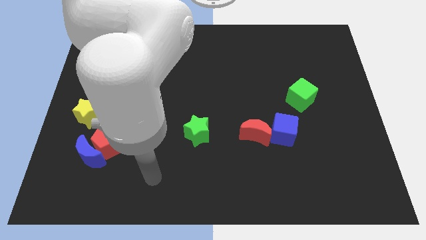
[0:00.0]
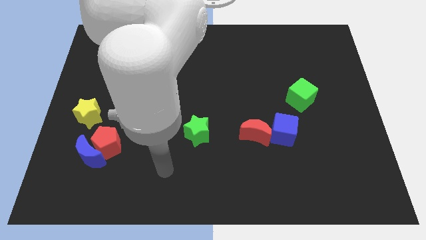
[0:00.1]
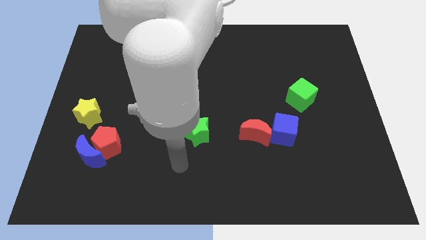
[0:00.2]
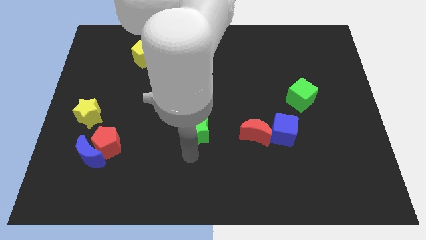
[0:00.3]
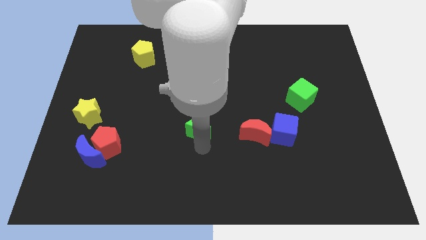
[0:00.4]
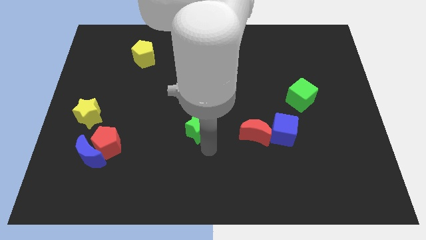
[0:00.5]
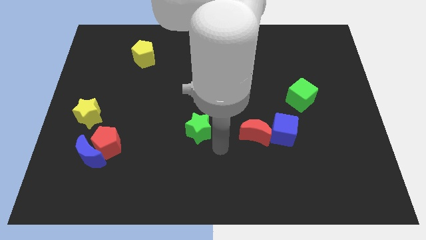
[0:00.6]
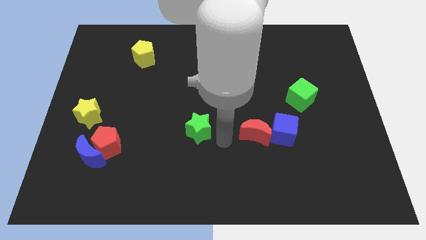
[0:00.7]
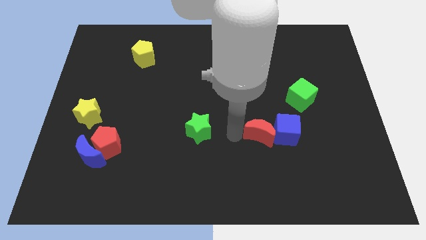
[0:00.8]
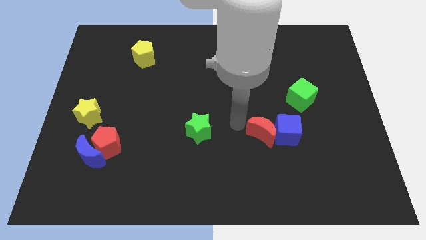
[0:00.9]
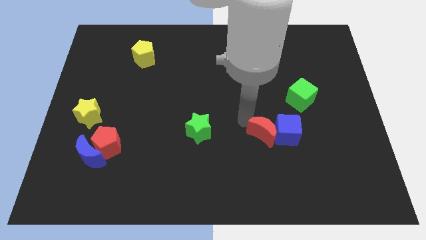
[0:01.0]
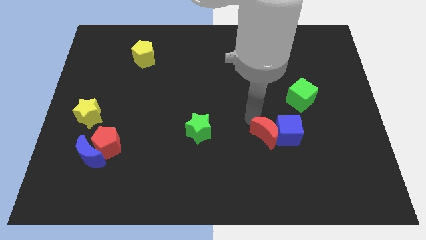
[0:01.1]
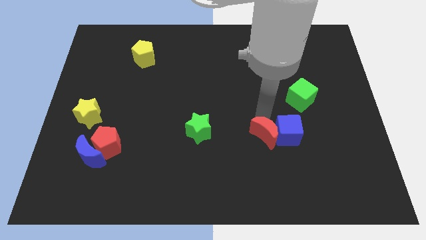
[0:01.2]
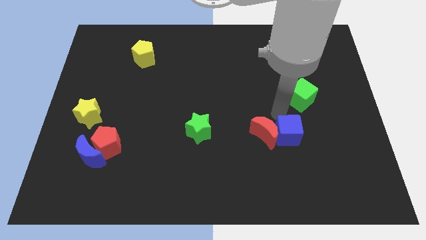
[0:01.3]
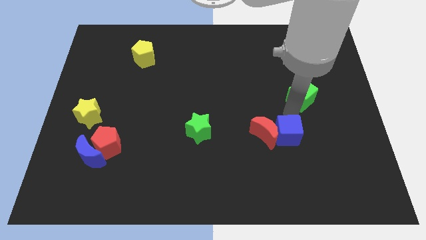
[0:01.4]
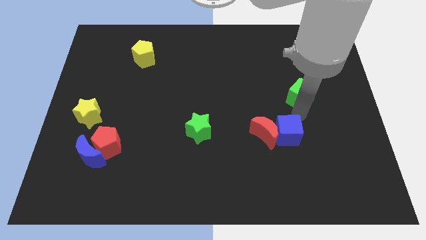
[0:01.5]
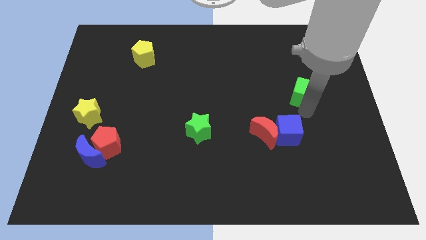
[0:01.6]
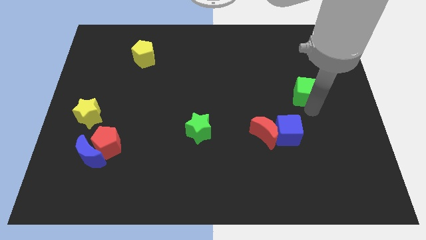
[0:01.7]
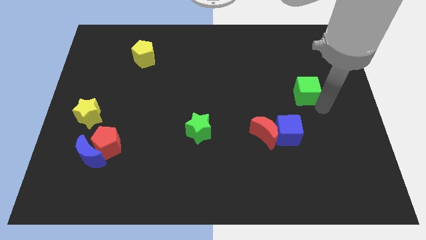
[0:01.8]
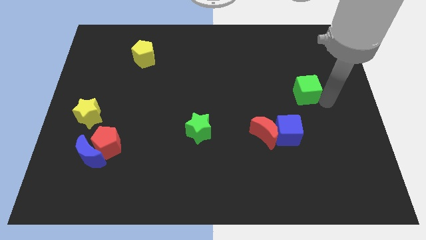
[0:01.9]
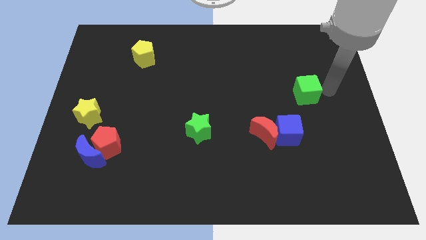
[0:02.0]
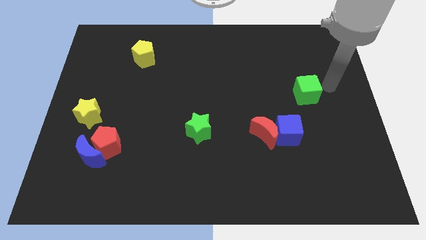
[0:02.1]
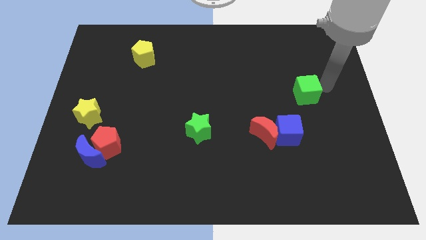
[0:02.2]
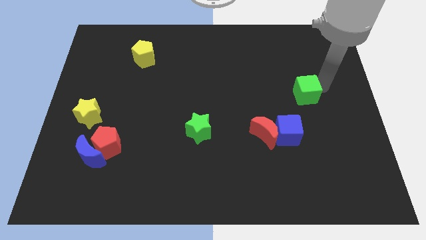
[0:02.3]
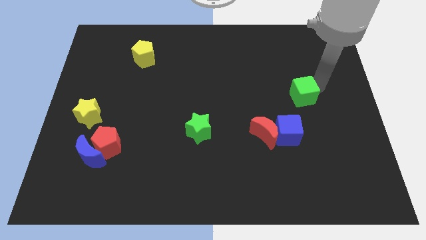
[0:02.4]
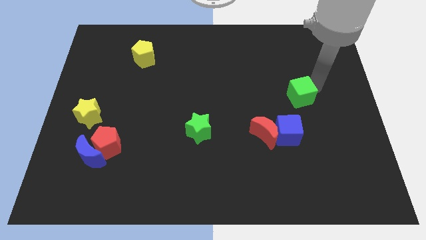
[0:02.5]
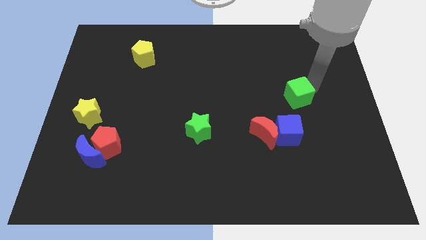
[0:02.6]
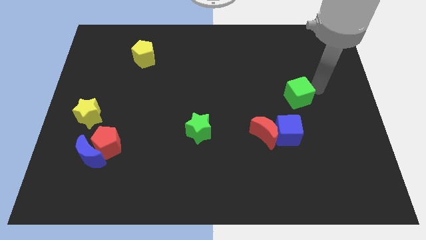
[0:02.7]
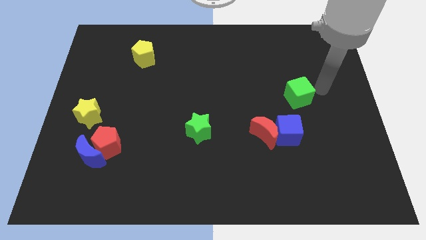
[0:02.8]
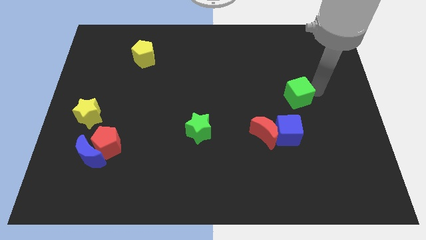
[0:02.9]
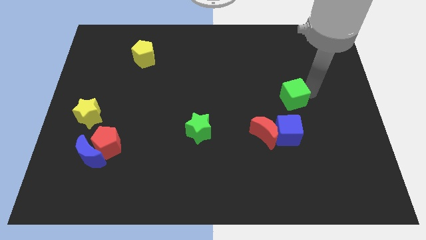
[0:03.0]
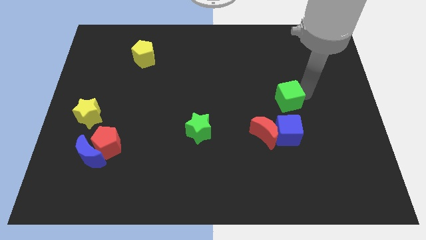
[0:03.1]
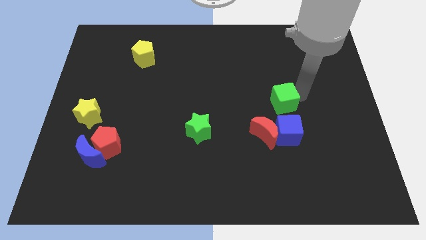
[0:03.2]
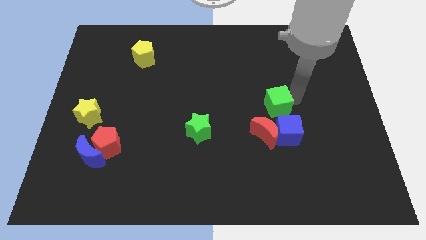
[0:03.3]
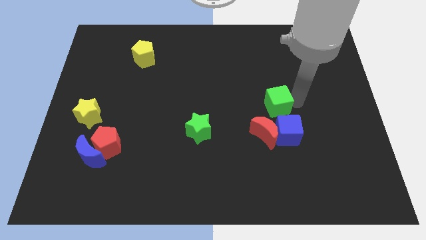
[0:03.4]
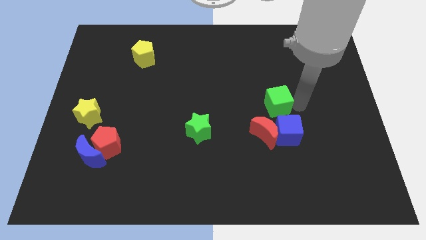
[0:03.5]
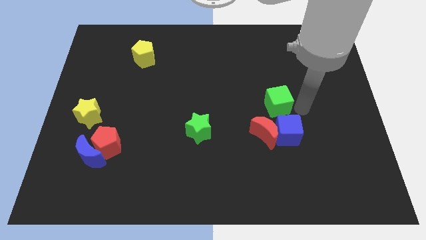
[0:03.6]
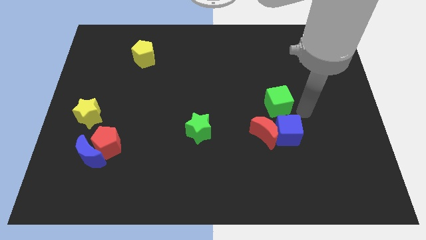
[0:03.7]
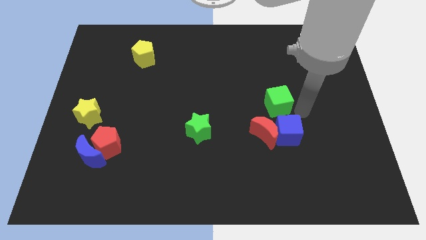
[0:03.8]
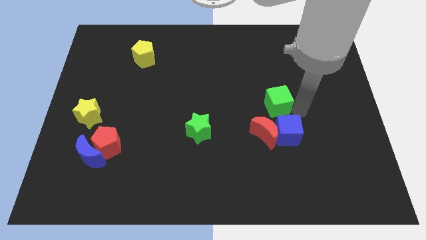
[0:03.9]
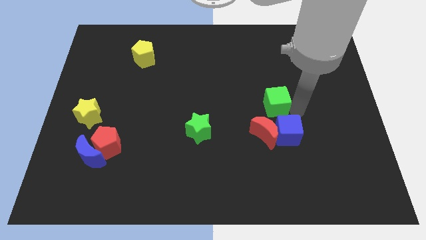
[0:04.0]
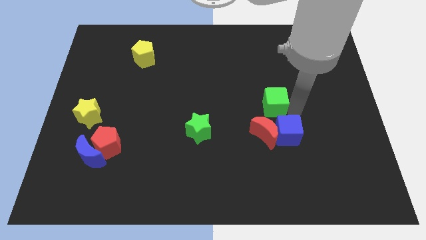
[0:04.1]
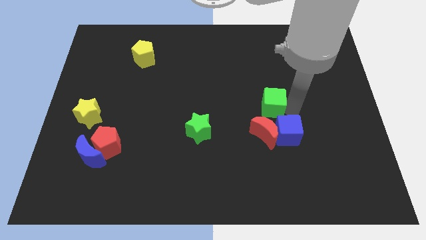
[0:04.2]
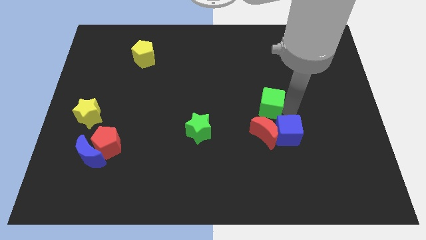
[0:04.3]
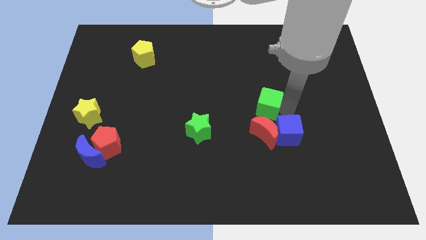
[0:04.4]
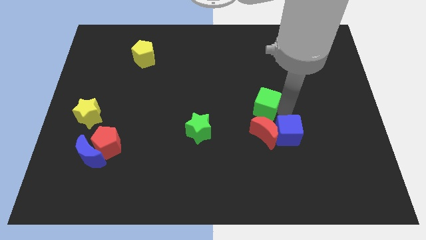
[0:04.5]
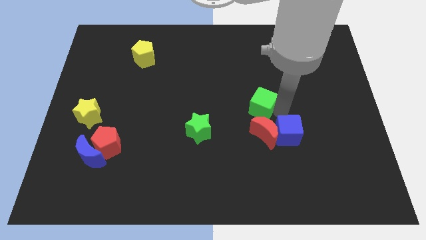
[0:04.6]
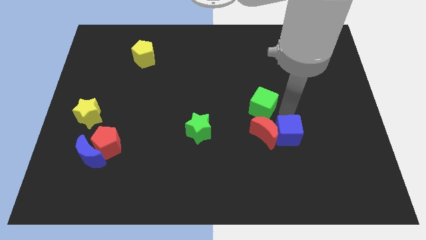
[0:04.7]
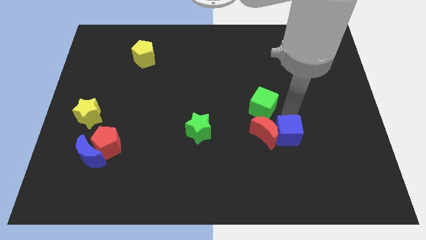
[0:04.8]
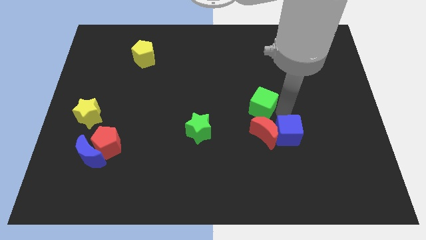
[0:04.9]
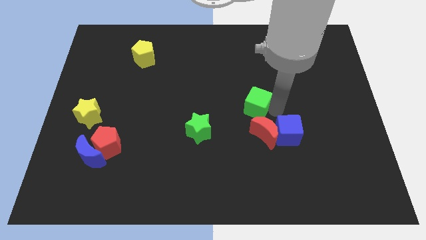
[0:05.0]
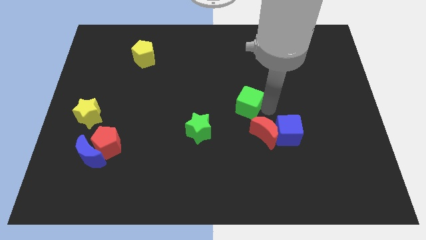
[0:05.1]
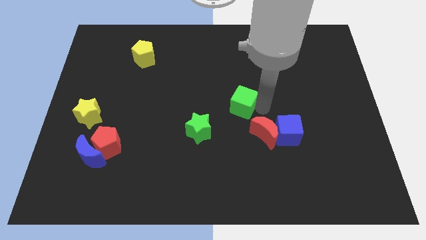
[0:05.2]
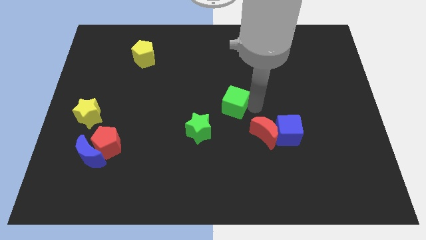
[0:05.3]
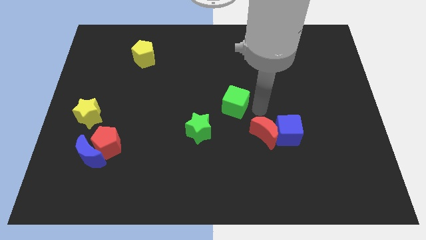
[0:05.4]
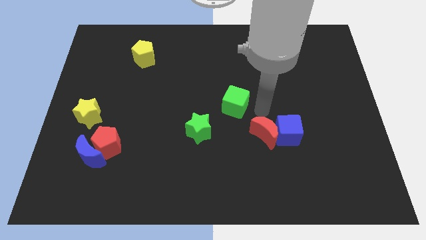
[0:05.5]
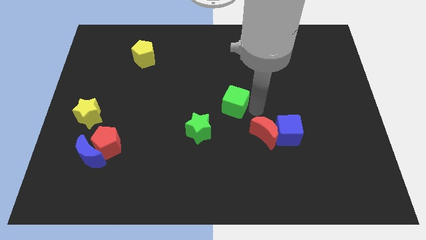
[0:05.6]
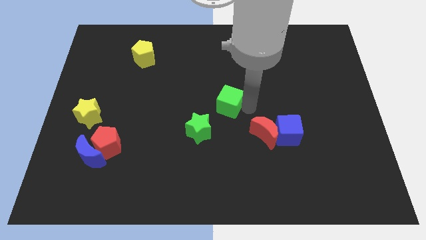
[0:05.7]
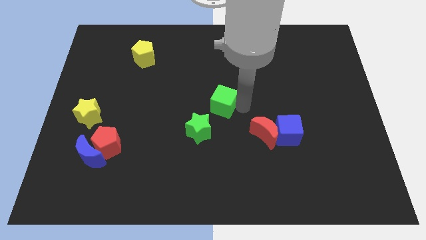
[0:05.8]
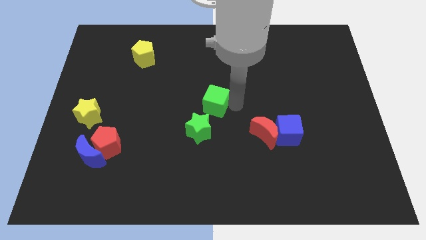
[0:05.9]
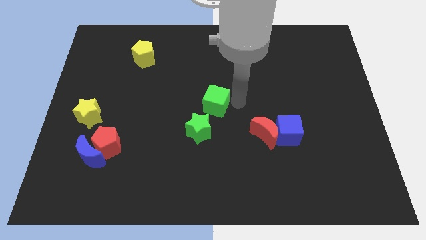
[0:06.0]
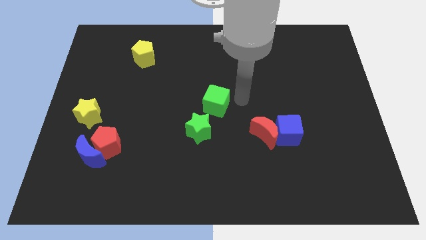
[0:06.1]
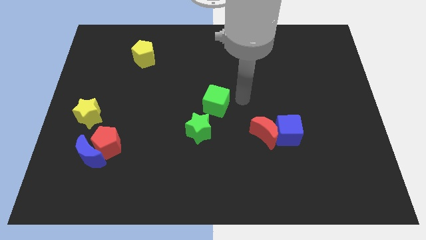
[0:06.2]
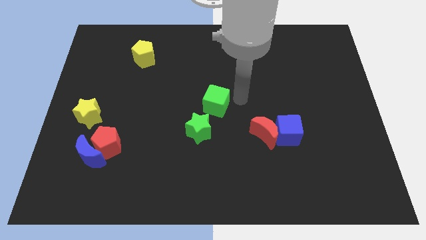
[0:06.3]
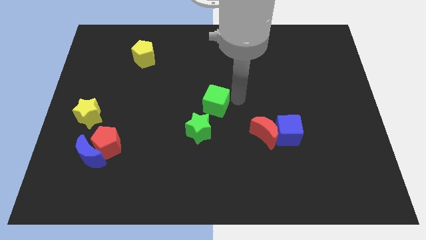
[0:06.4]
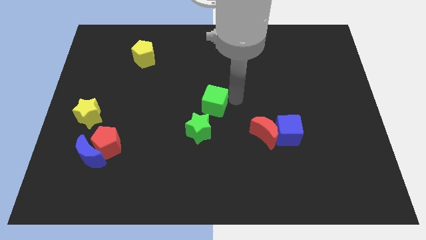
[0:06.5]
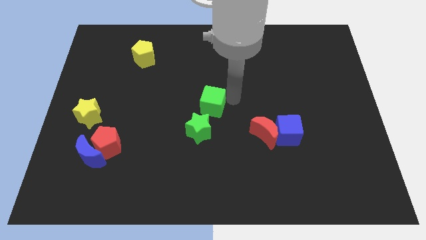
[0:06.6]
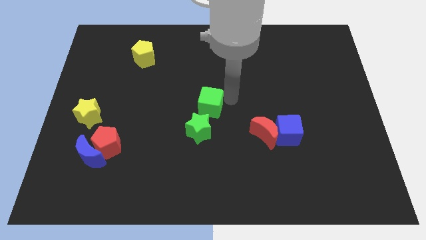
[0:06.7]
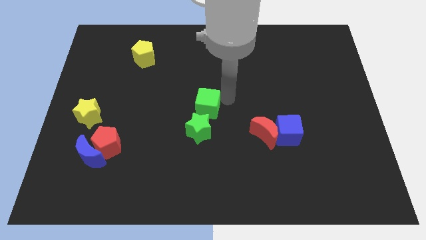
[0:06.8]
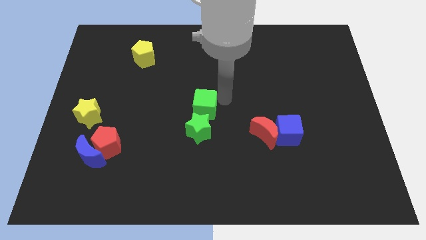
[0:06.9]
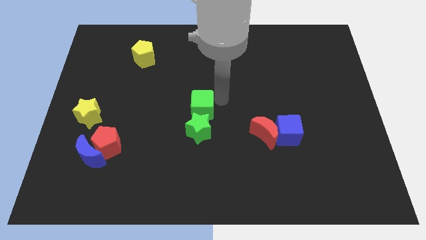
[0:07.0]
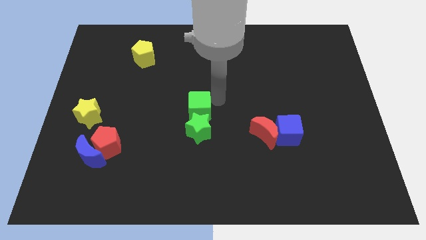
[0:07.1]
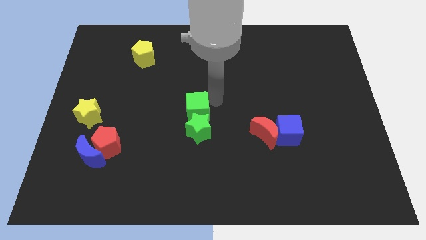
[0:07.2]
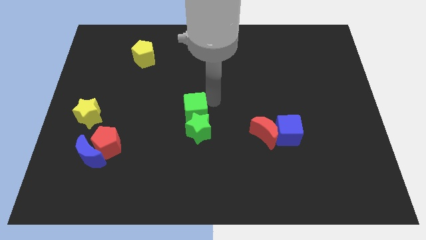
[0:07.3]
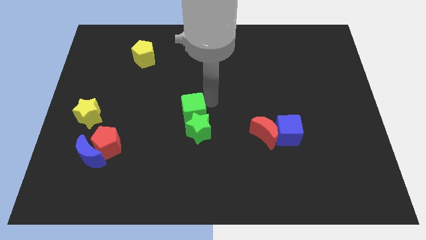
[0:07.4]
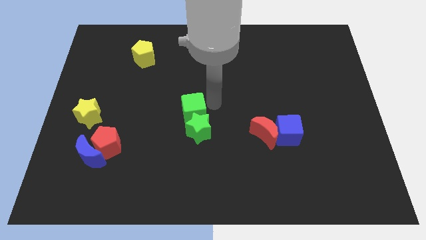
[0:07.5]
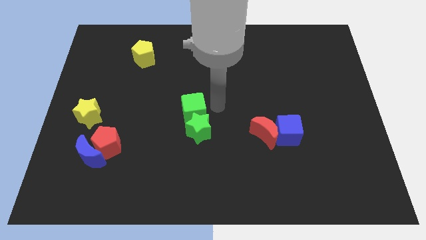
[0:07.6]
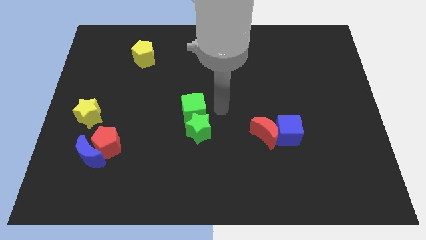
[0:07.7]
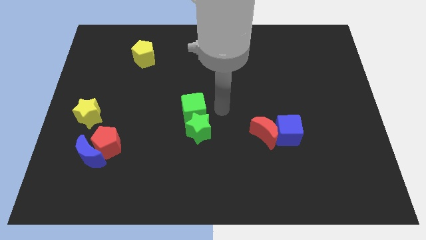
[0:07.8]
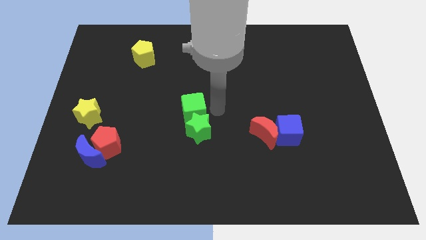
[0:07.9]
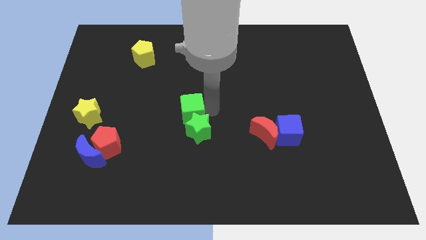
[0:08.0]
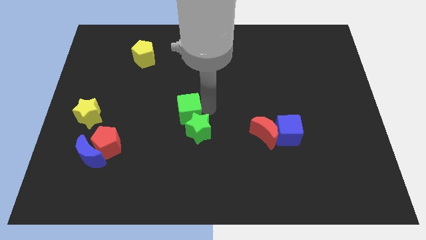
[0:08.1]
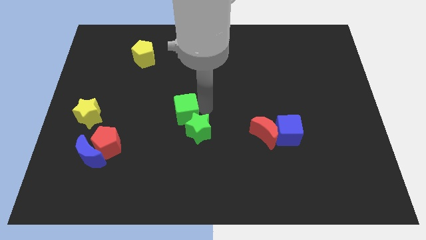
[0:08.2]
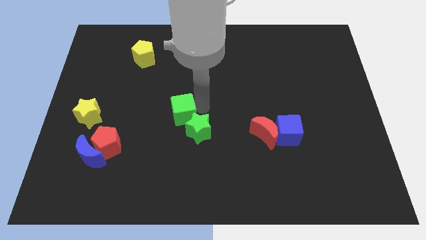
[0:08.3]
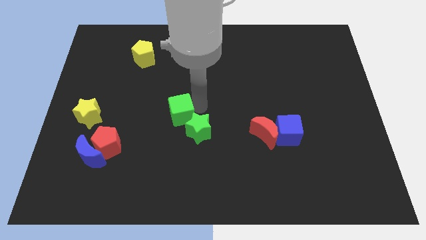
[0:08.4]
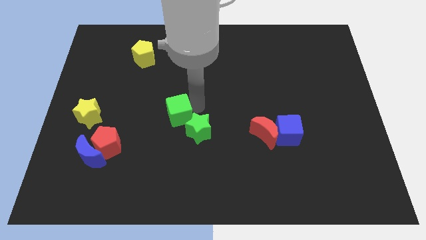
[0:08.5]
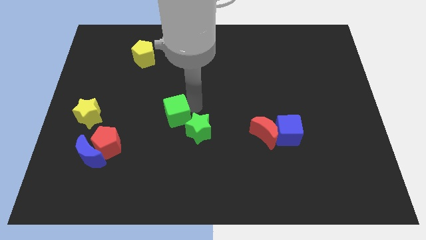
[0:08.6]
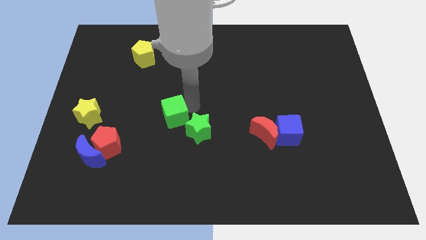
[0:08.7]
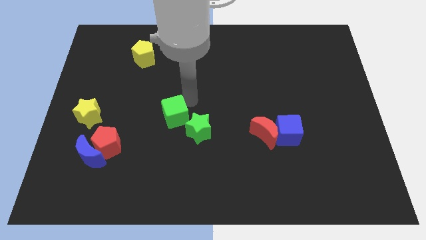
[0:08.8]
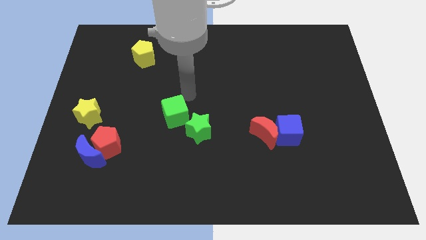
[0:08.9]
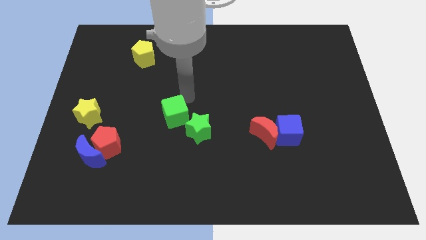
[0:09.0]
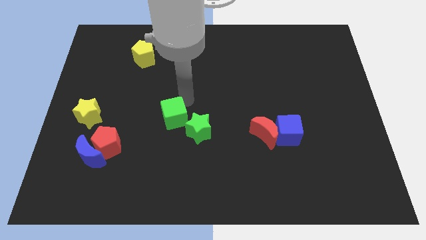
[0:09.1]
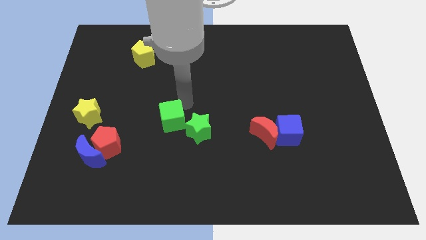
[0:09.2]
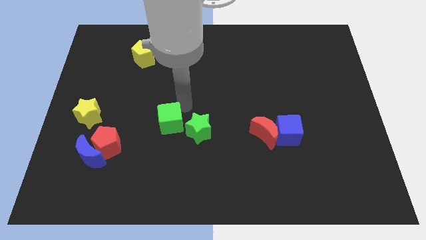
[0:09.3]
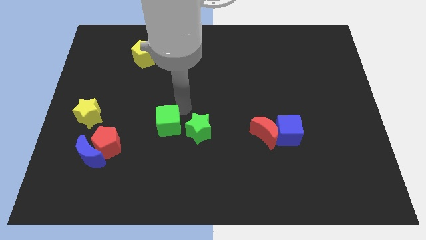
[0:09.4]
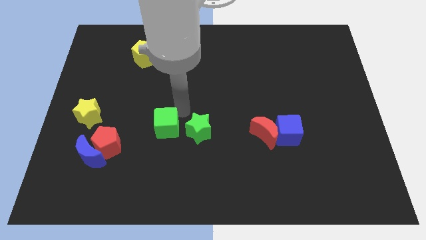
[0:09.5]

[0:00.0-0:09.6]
move the green cube just right of the red pentagon
